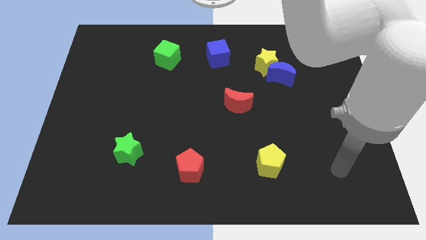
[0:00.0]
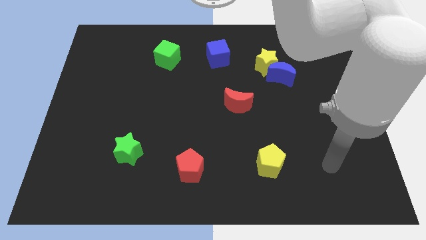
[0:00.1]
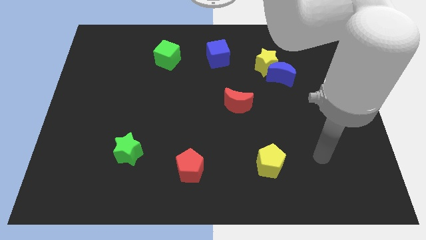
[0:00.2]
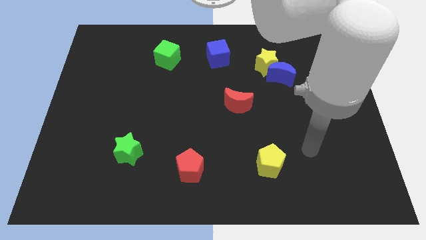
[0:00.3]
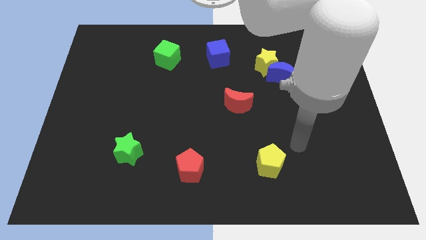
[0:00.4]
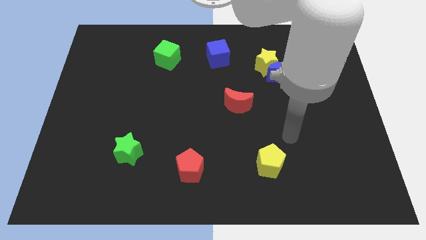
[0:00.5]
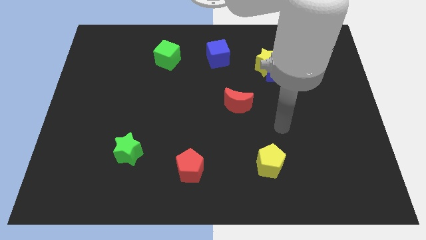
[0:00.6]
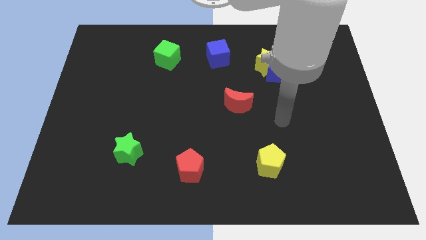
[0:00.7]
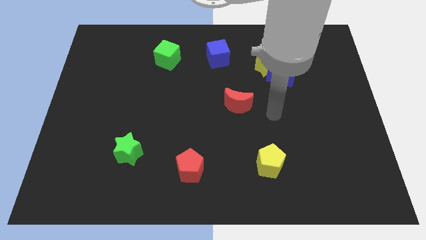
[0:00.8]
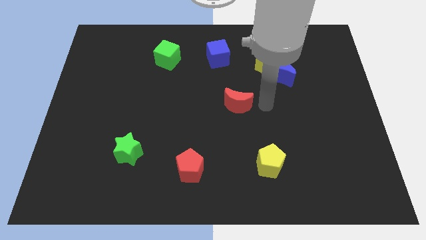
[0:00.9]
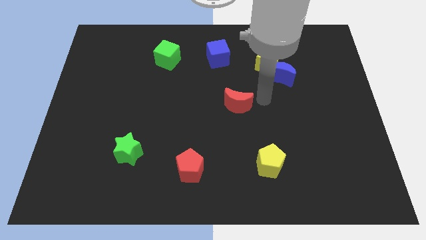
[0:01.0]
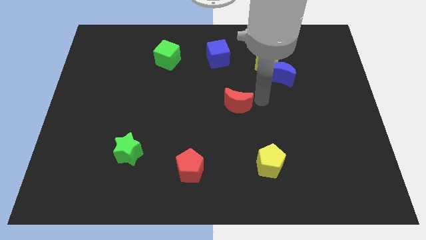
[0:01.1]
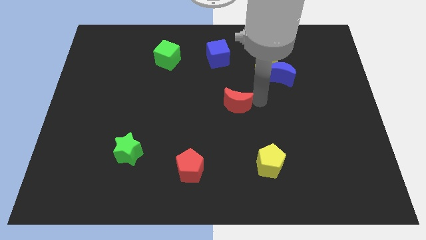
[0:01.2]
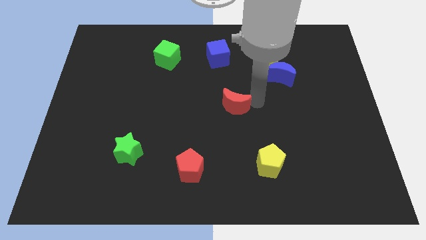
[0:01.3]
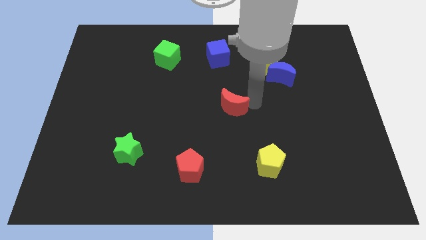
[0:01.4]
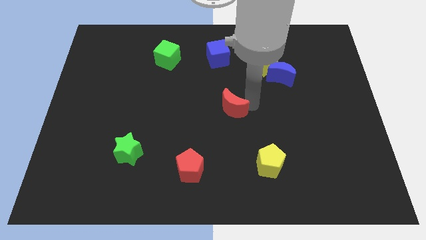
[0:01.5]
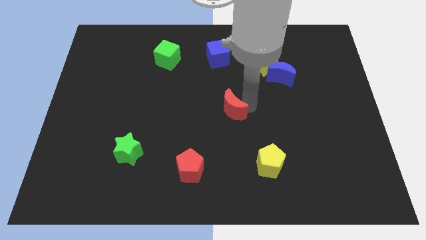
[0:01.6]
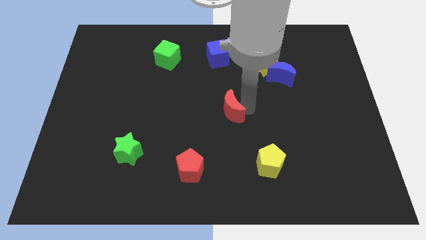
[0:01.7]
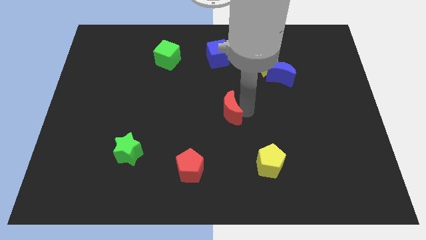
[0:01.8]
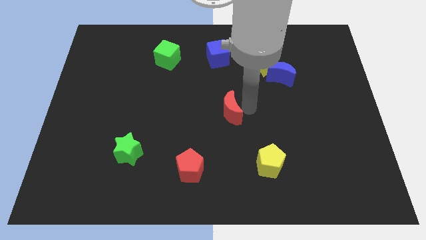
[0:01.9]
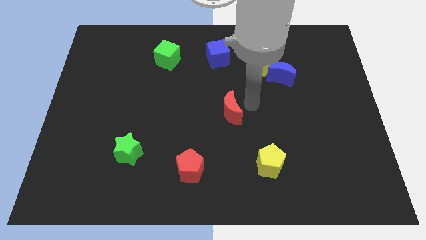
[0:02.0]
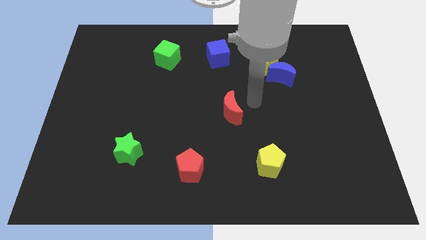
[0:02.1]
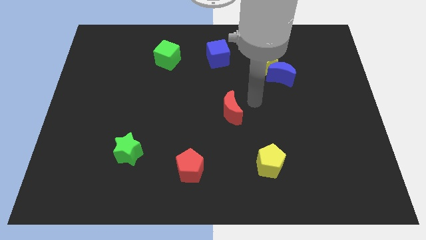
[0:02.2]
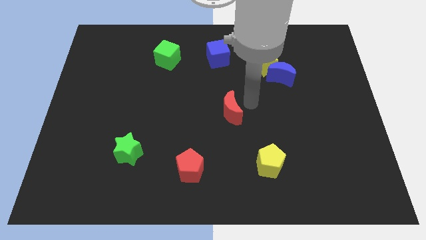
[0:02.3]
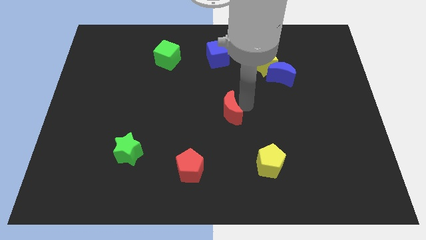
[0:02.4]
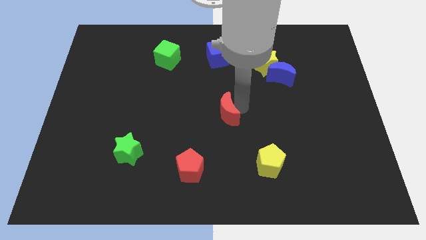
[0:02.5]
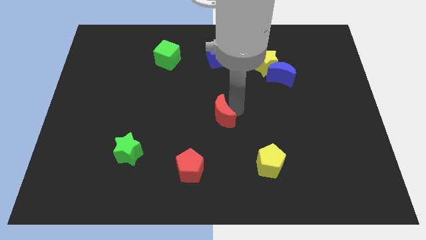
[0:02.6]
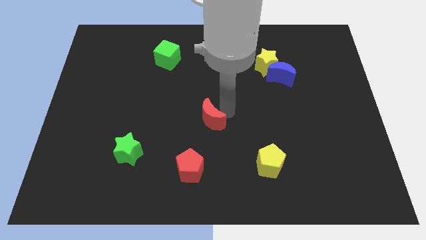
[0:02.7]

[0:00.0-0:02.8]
slightly slide the red moon diagonally down and left

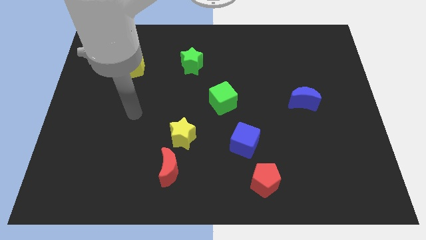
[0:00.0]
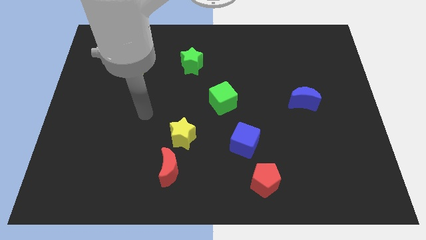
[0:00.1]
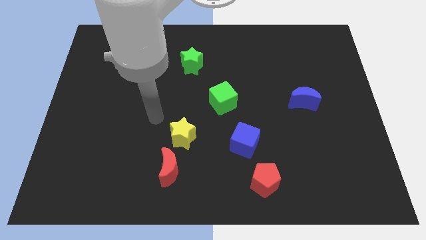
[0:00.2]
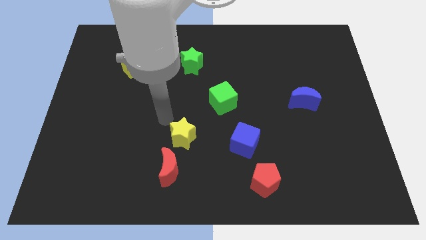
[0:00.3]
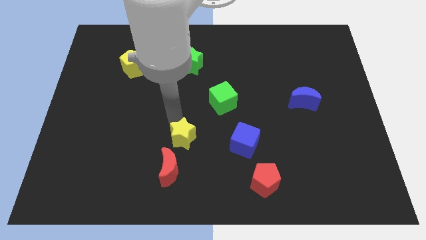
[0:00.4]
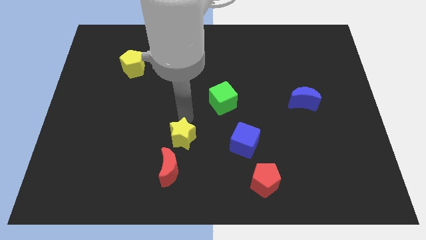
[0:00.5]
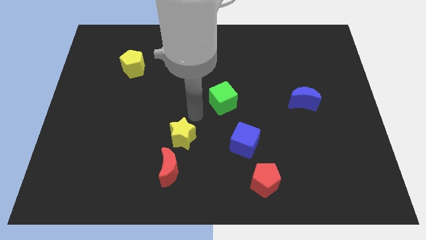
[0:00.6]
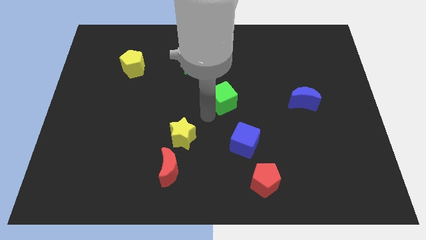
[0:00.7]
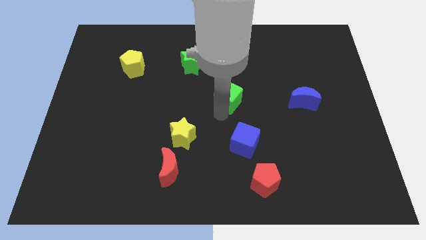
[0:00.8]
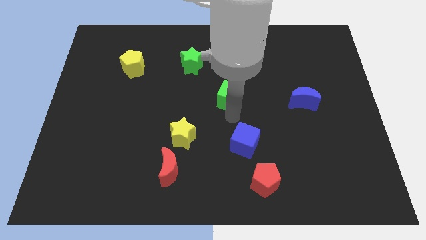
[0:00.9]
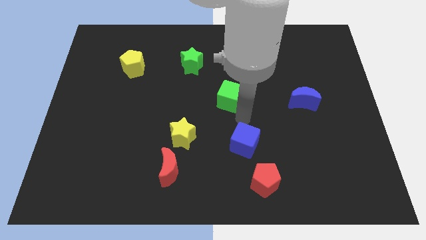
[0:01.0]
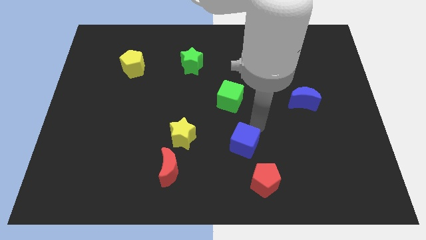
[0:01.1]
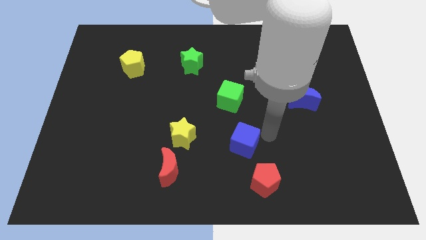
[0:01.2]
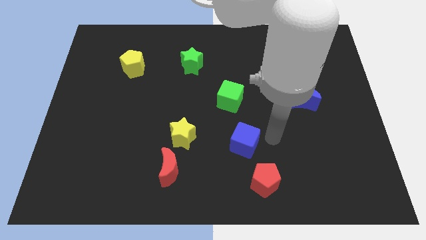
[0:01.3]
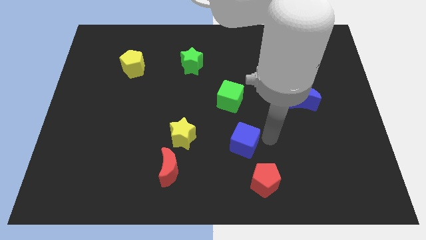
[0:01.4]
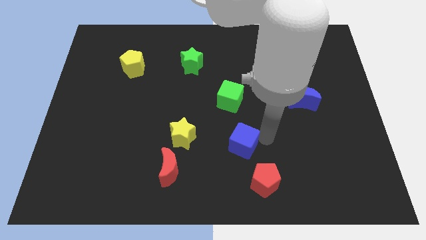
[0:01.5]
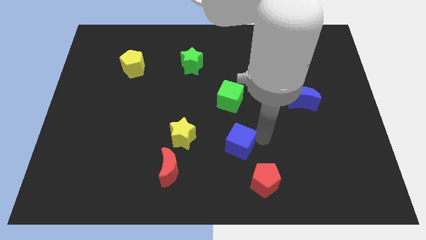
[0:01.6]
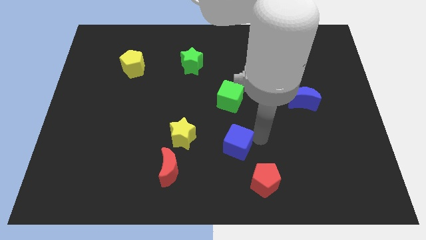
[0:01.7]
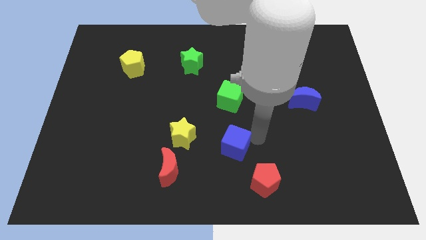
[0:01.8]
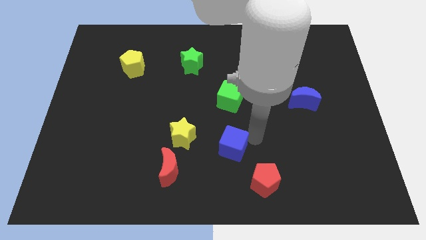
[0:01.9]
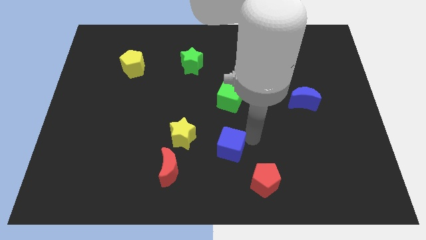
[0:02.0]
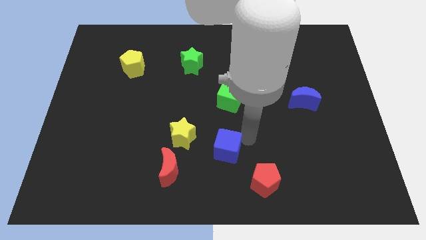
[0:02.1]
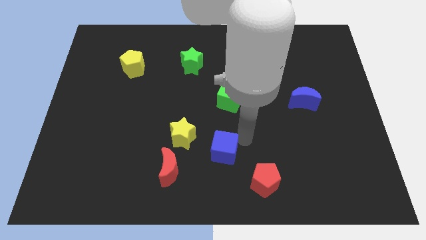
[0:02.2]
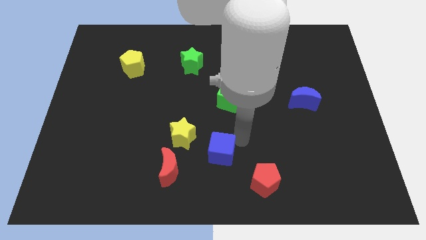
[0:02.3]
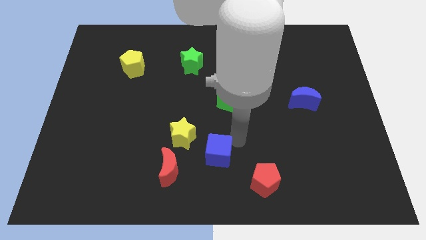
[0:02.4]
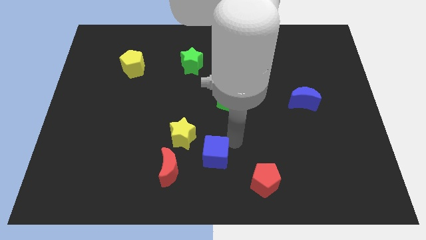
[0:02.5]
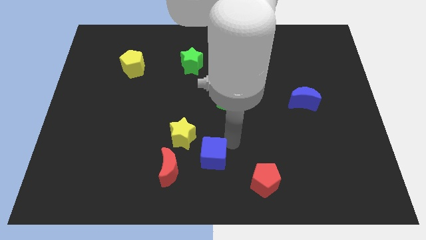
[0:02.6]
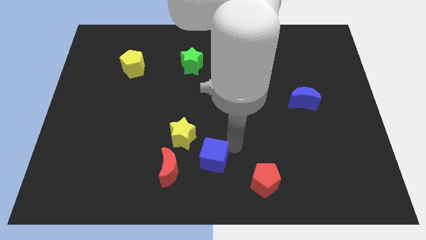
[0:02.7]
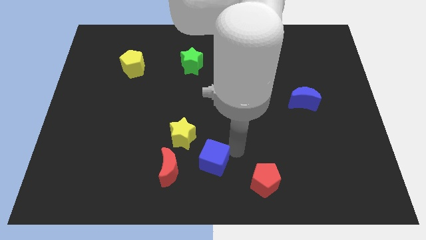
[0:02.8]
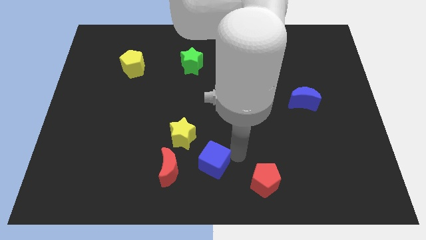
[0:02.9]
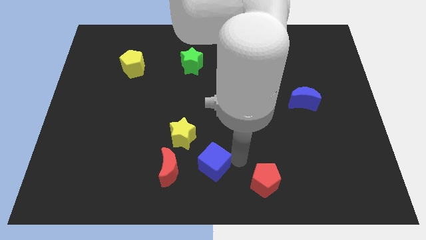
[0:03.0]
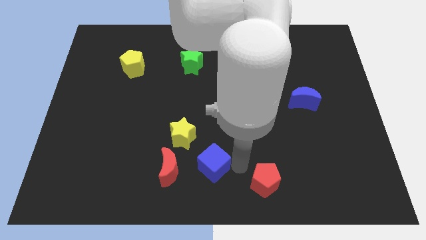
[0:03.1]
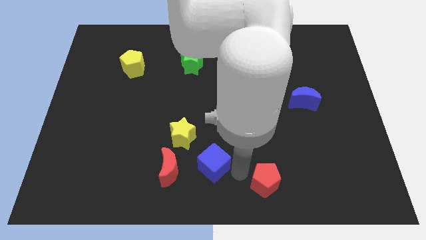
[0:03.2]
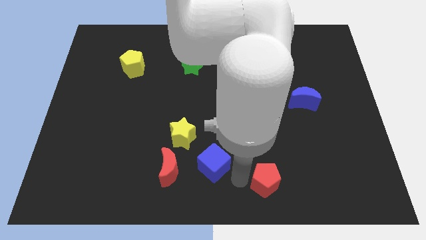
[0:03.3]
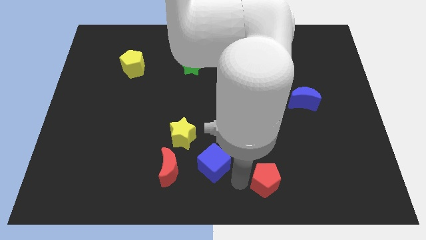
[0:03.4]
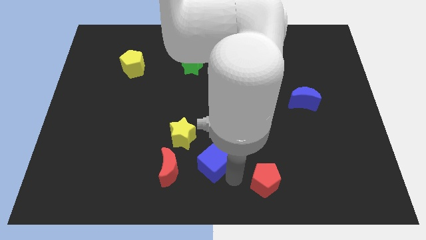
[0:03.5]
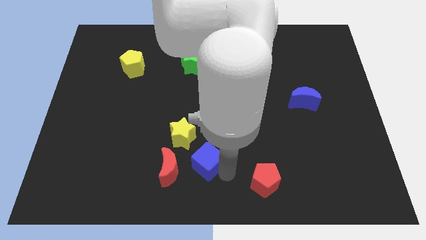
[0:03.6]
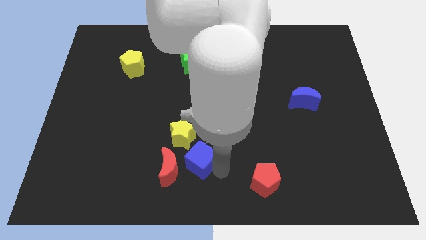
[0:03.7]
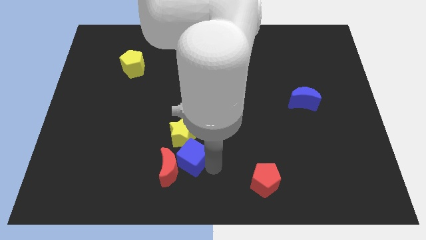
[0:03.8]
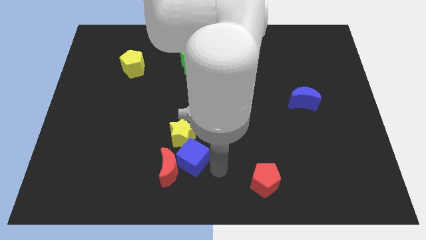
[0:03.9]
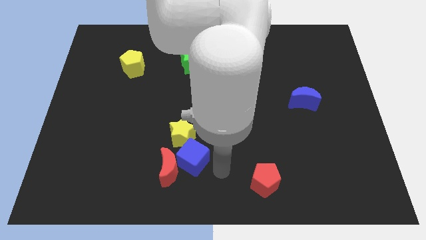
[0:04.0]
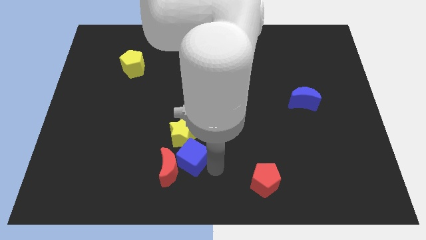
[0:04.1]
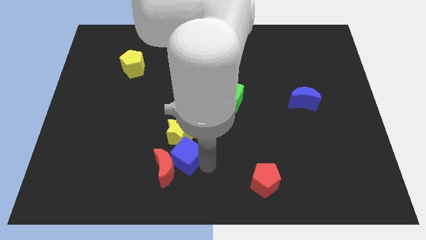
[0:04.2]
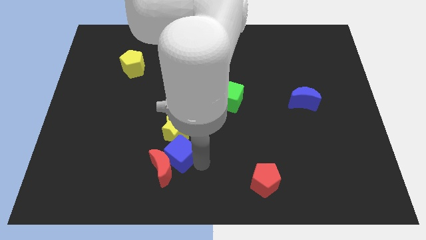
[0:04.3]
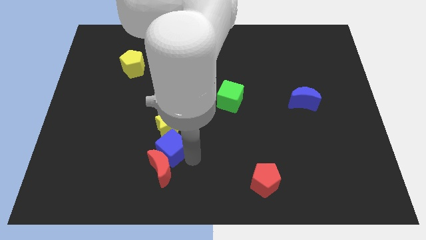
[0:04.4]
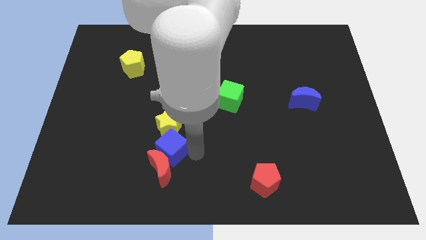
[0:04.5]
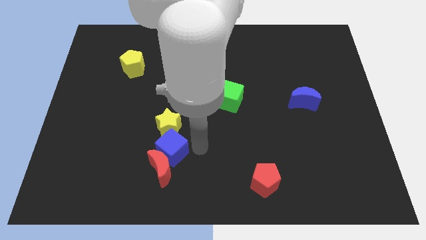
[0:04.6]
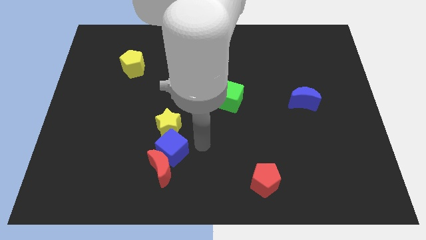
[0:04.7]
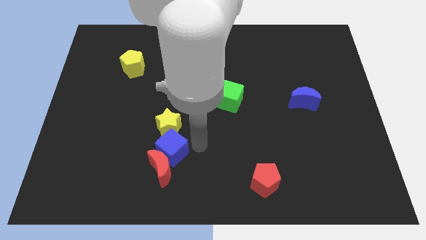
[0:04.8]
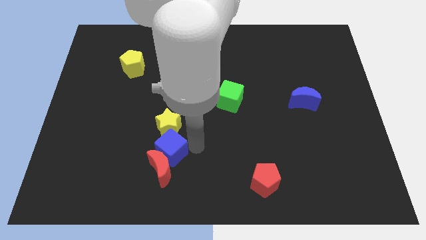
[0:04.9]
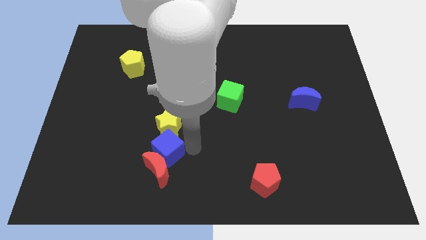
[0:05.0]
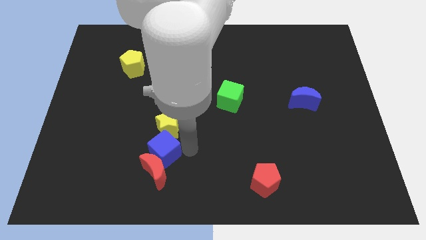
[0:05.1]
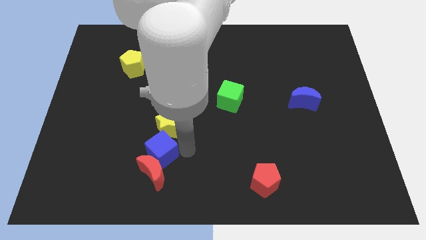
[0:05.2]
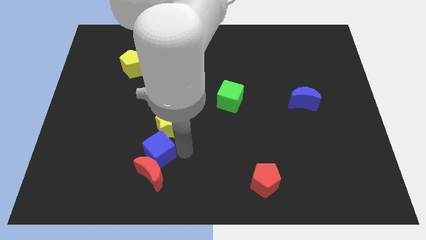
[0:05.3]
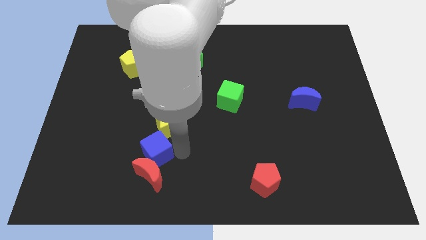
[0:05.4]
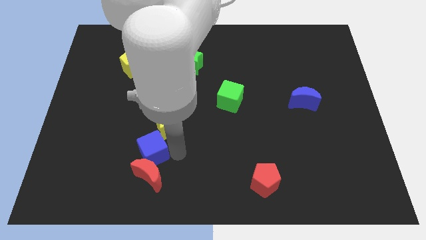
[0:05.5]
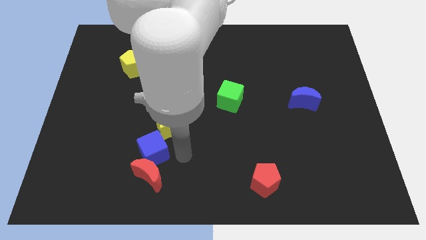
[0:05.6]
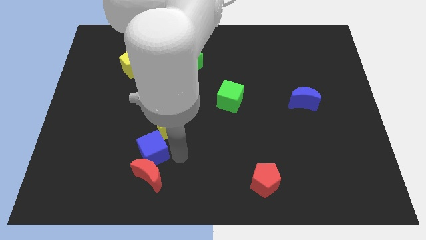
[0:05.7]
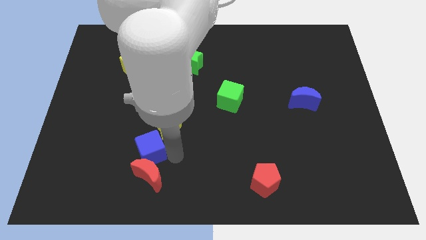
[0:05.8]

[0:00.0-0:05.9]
move the blue cube left
